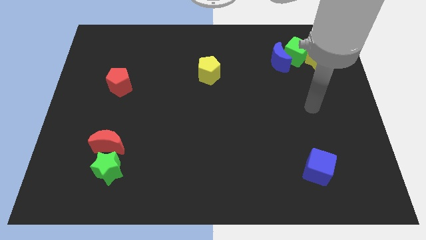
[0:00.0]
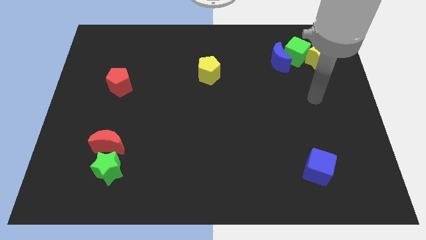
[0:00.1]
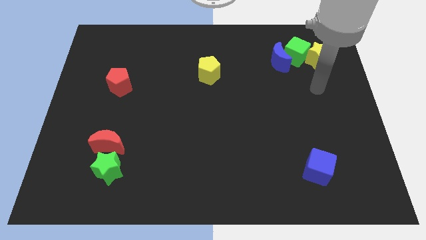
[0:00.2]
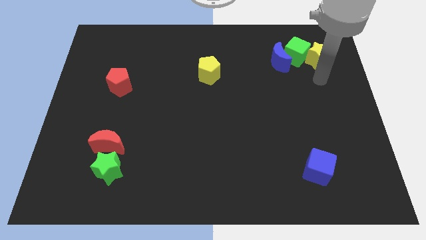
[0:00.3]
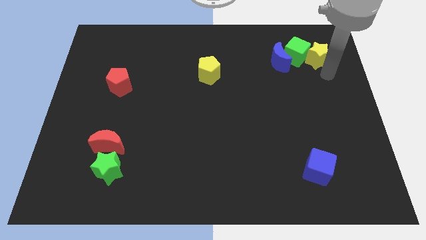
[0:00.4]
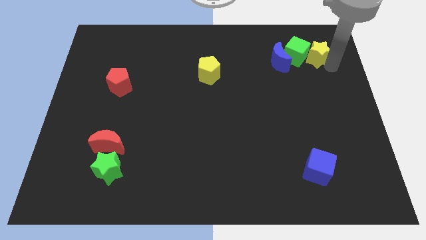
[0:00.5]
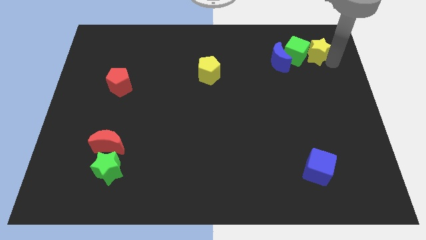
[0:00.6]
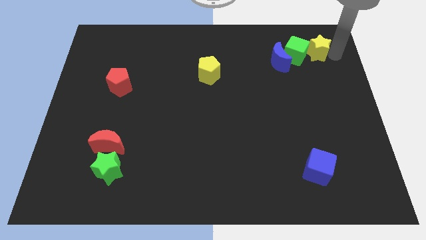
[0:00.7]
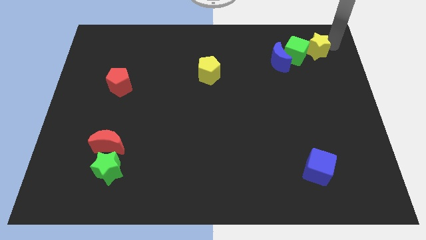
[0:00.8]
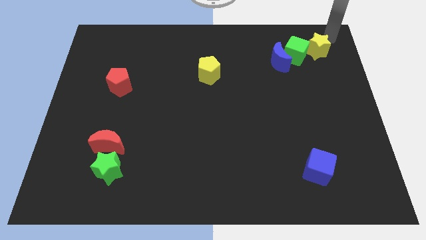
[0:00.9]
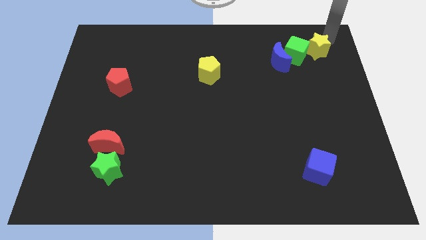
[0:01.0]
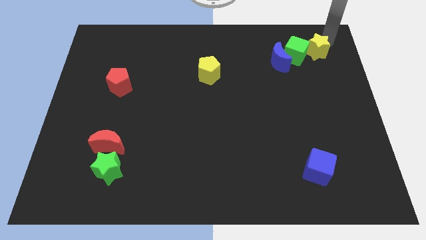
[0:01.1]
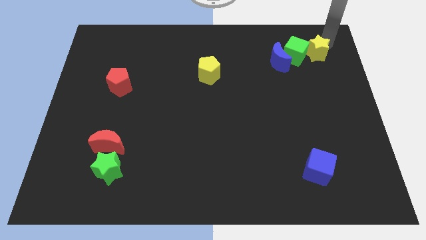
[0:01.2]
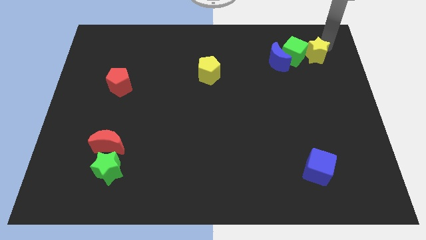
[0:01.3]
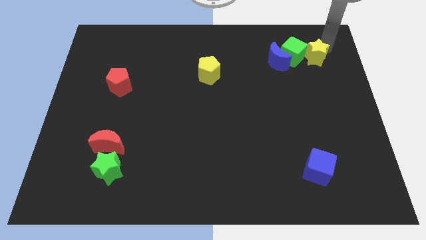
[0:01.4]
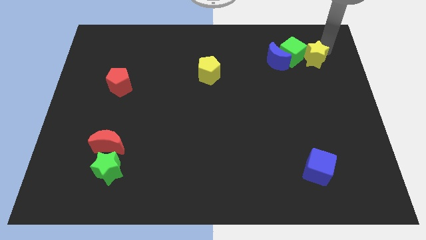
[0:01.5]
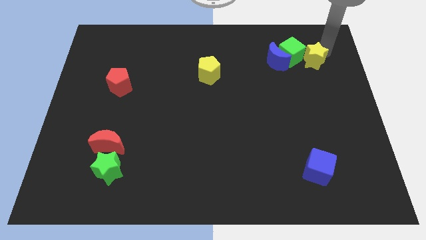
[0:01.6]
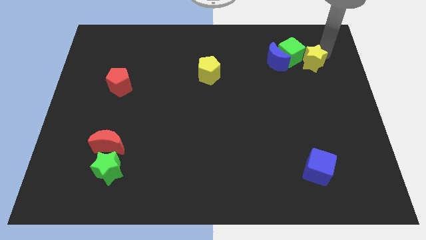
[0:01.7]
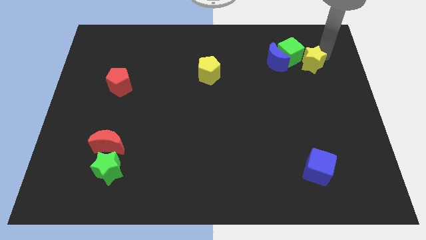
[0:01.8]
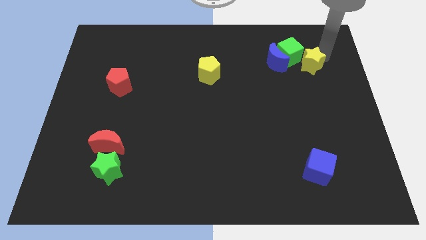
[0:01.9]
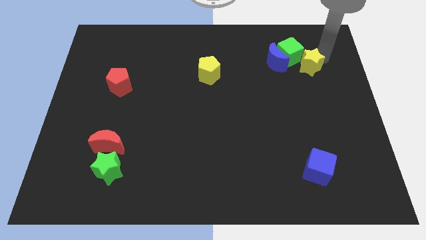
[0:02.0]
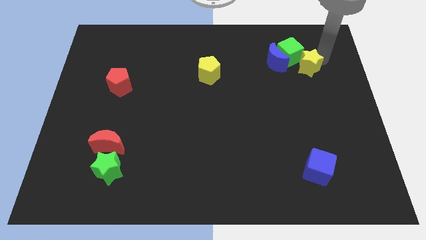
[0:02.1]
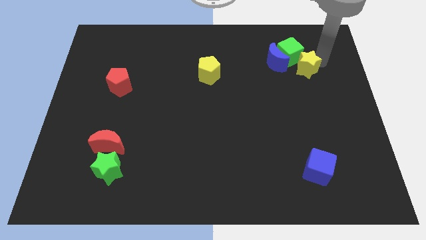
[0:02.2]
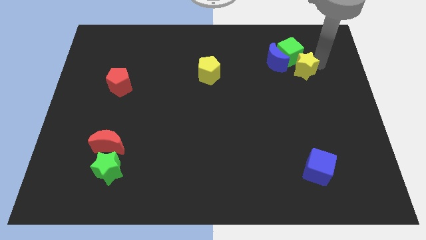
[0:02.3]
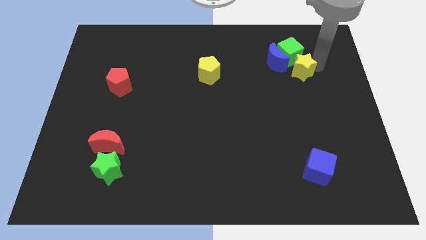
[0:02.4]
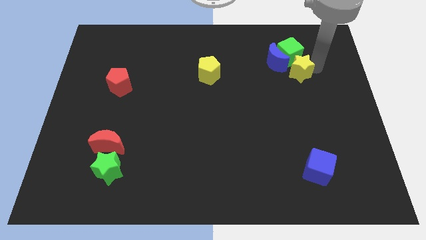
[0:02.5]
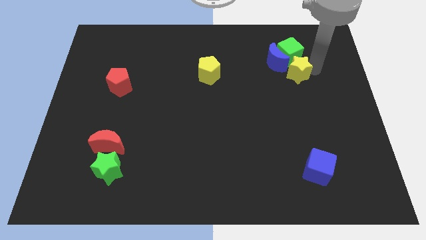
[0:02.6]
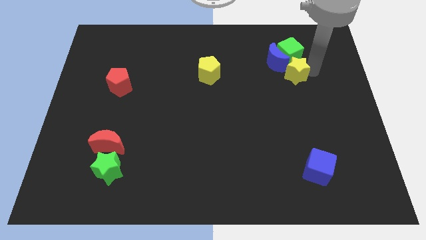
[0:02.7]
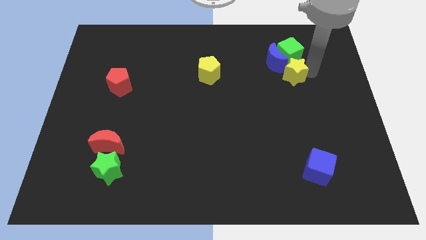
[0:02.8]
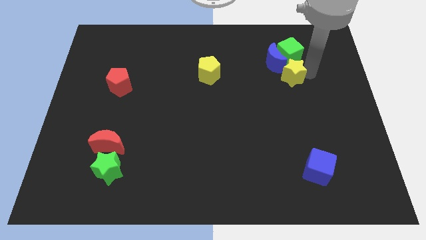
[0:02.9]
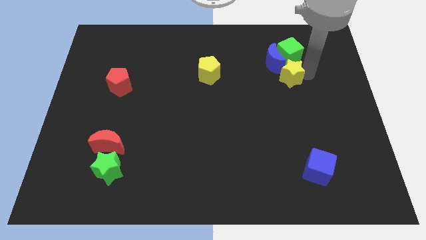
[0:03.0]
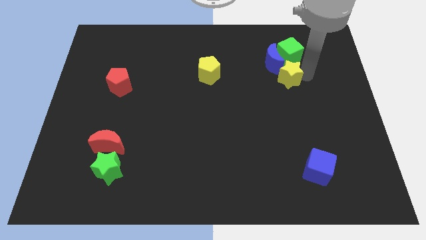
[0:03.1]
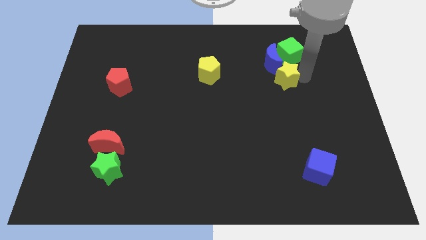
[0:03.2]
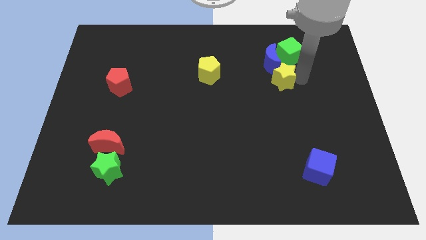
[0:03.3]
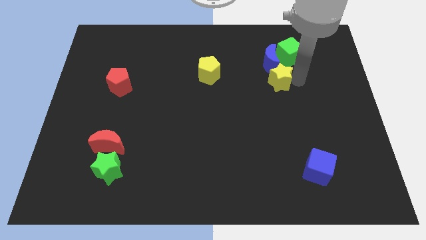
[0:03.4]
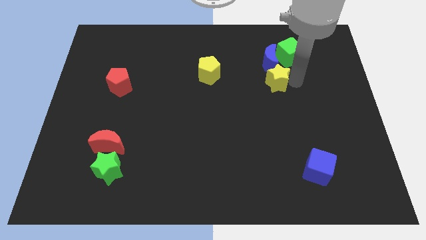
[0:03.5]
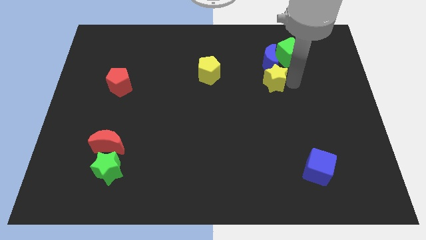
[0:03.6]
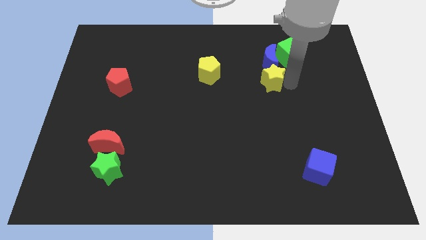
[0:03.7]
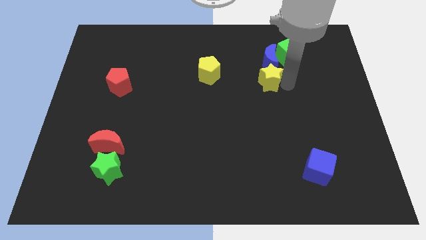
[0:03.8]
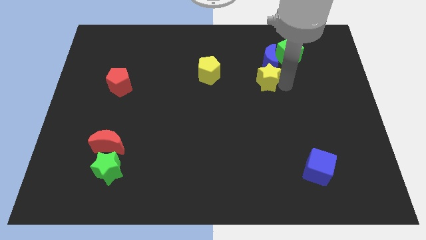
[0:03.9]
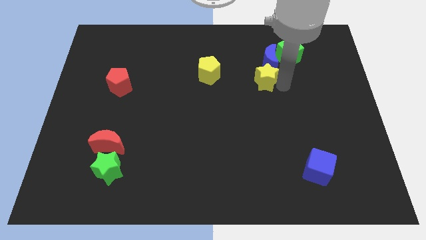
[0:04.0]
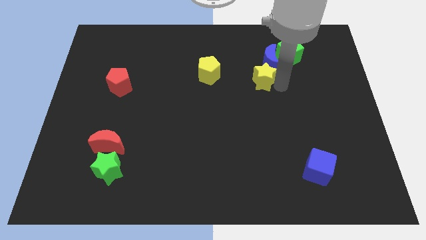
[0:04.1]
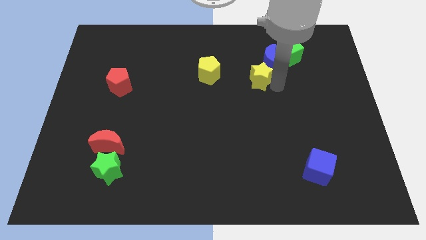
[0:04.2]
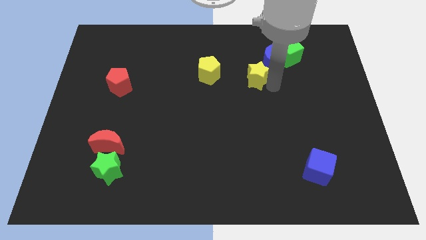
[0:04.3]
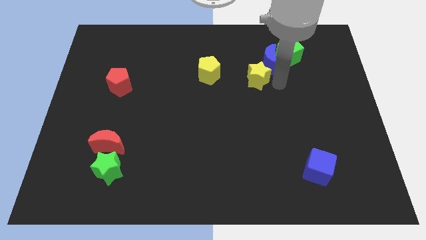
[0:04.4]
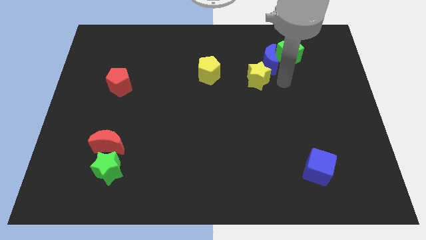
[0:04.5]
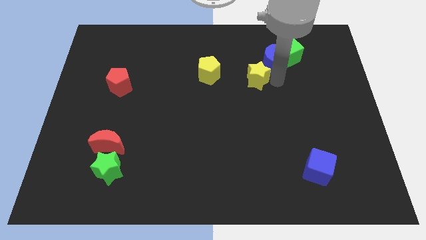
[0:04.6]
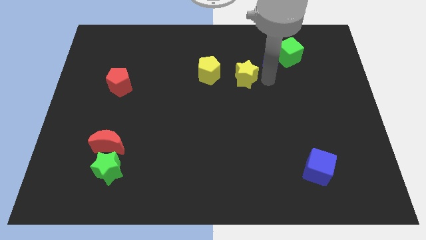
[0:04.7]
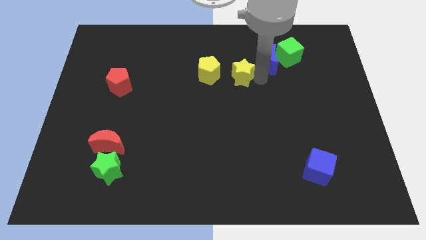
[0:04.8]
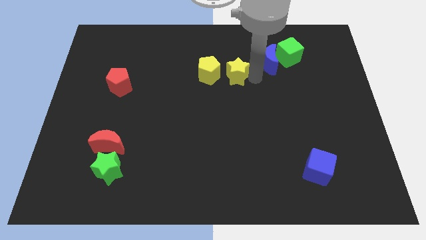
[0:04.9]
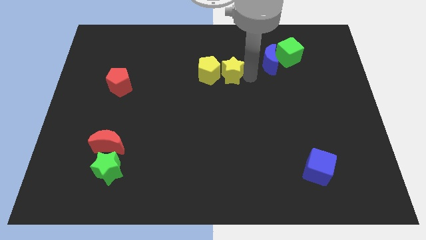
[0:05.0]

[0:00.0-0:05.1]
put the yellow star to the yellow pentagon

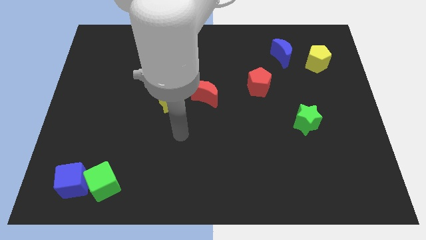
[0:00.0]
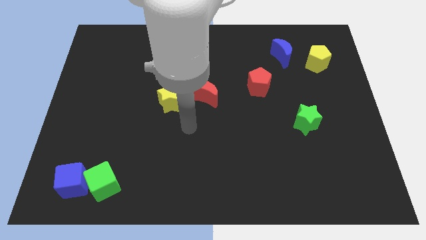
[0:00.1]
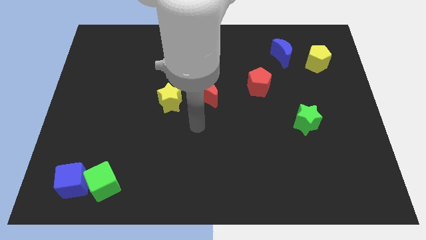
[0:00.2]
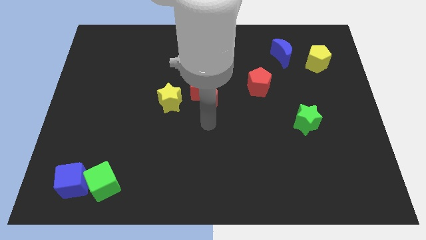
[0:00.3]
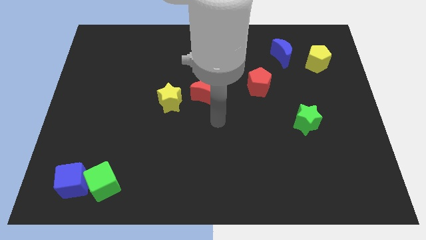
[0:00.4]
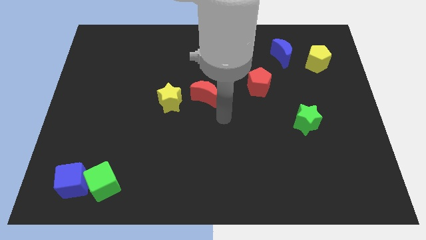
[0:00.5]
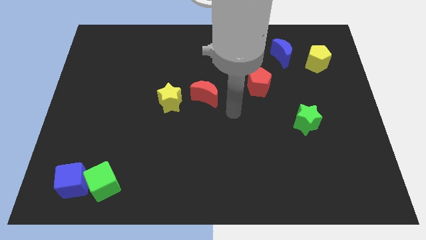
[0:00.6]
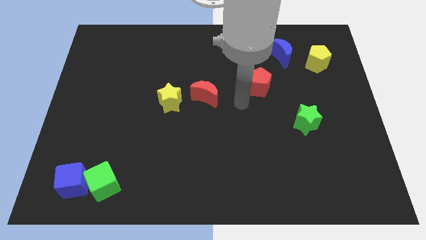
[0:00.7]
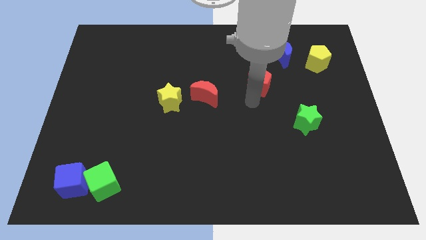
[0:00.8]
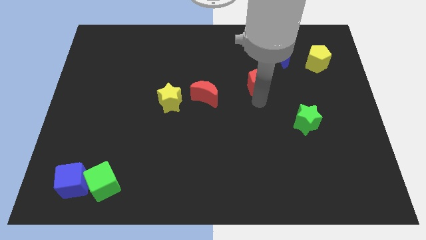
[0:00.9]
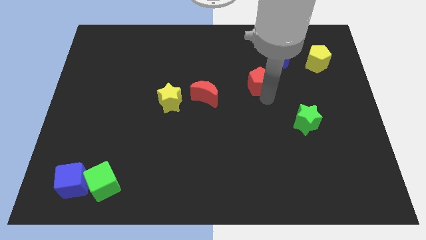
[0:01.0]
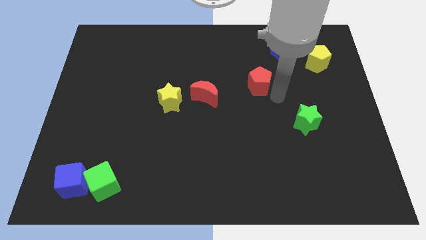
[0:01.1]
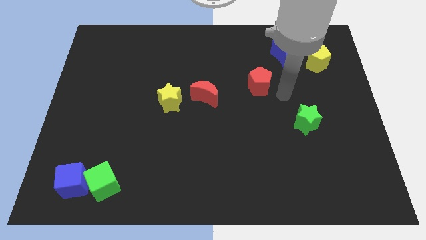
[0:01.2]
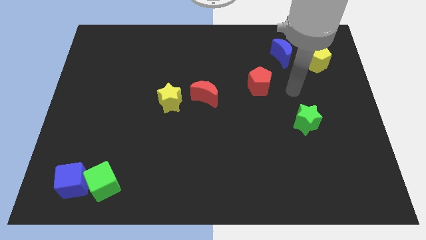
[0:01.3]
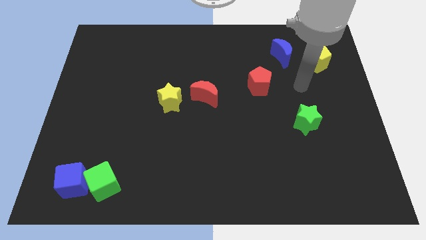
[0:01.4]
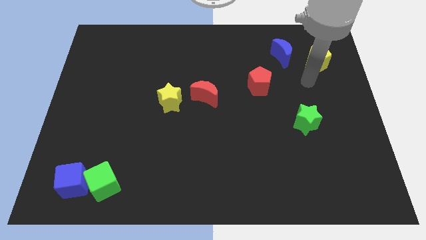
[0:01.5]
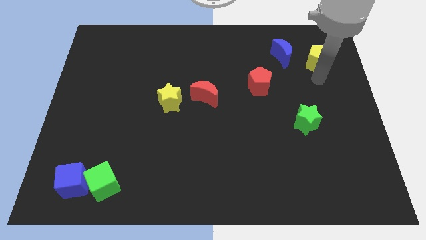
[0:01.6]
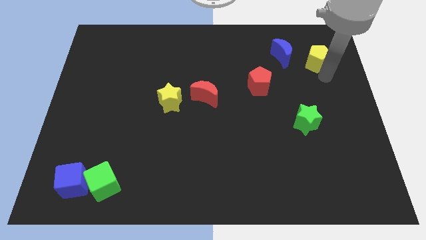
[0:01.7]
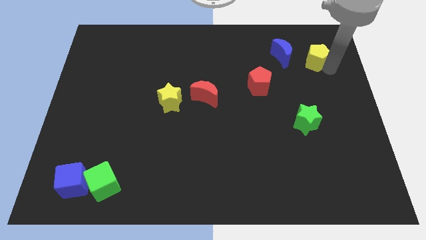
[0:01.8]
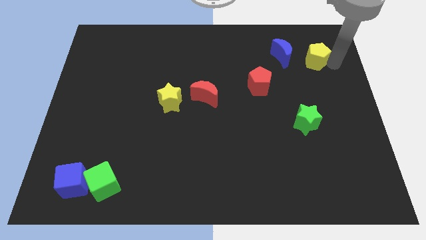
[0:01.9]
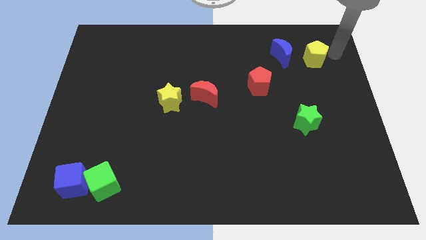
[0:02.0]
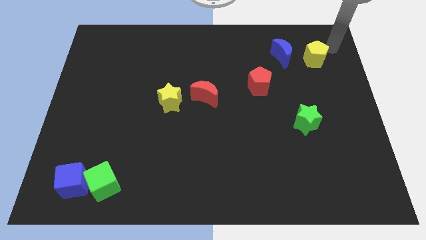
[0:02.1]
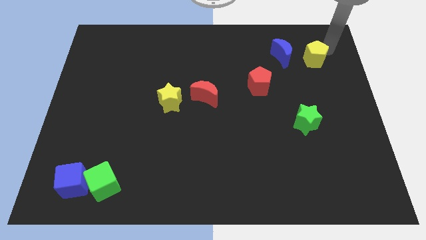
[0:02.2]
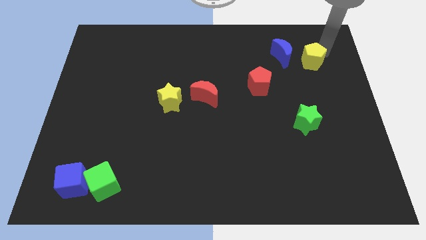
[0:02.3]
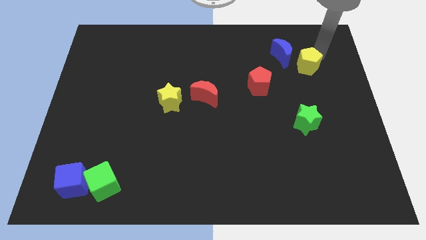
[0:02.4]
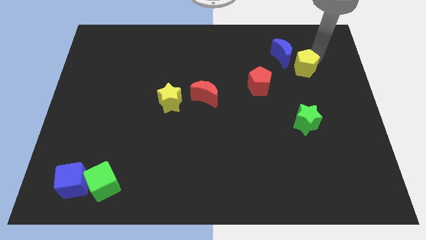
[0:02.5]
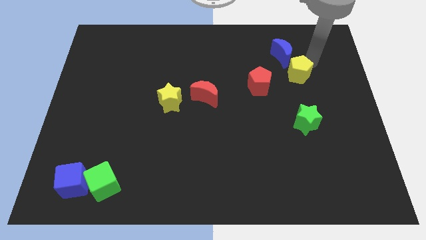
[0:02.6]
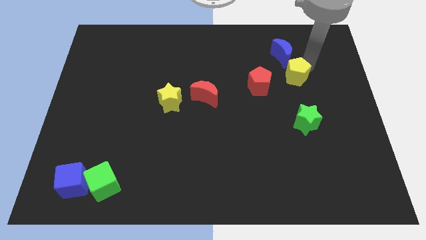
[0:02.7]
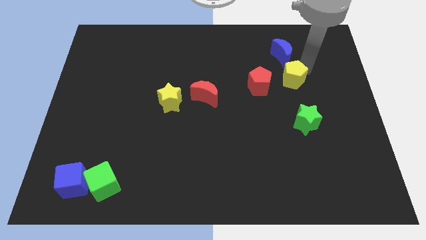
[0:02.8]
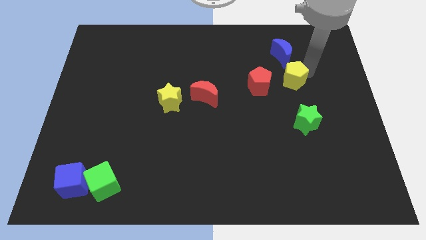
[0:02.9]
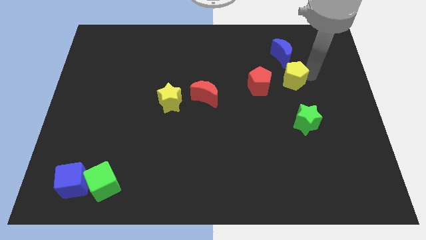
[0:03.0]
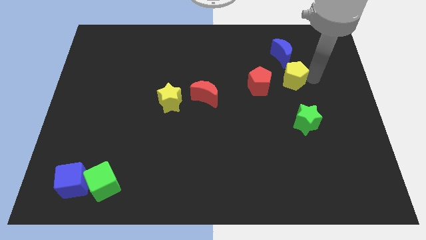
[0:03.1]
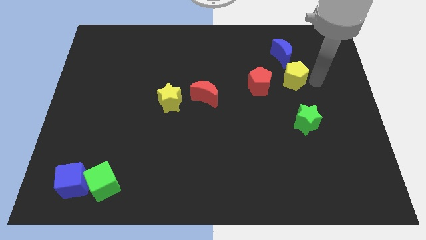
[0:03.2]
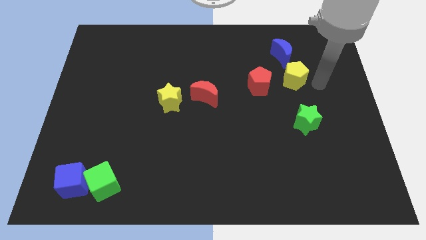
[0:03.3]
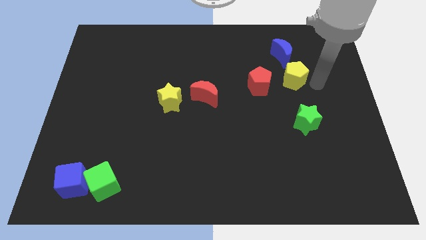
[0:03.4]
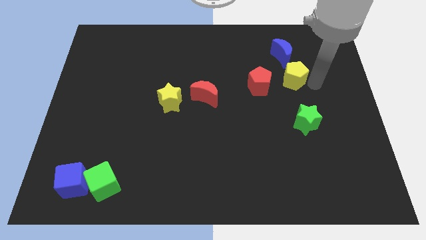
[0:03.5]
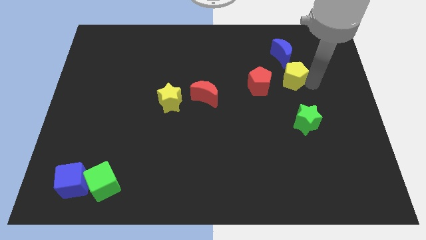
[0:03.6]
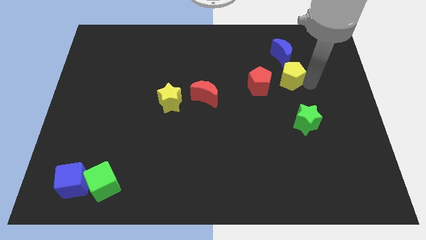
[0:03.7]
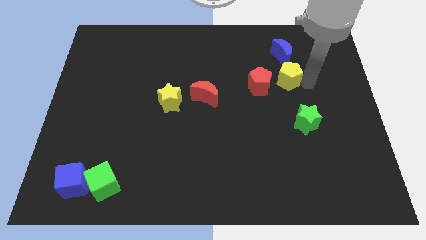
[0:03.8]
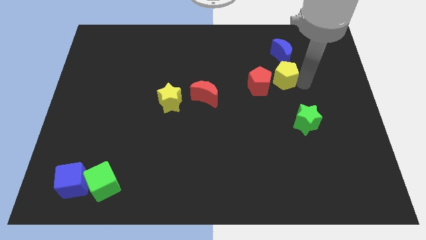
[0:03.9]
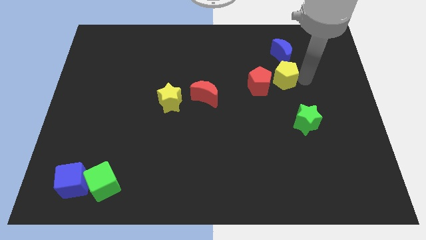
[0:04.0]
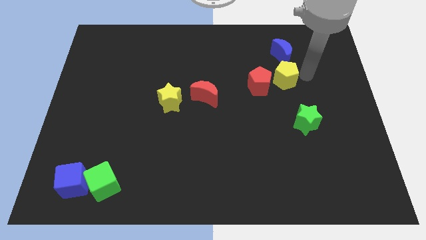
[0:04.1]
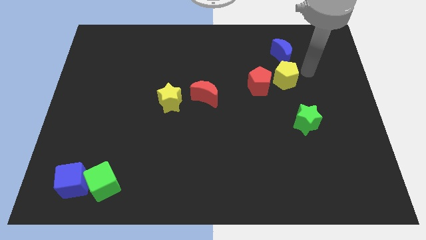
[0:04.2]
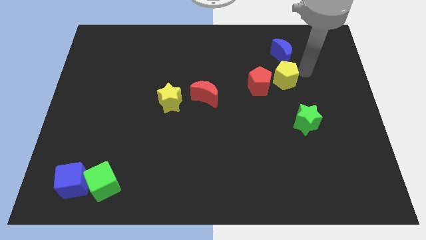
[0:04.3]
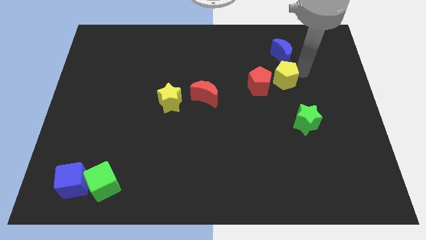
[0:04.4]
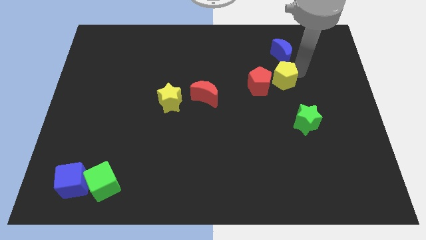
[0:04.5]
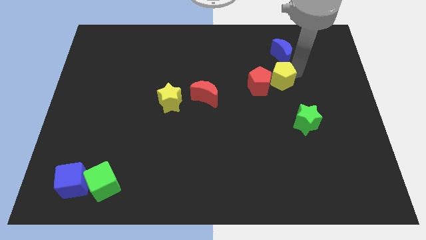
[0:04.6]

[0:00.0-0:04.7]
push the yellow pentagon next to the red pentagon
